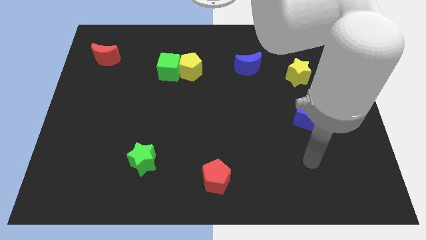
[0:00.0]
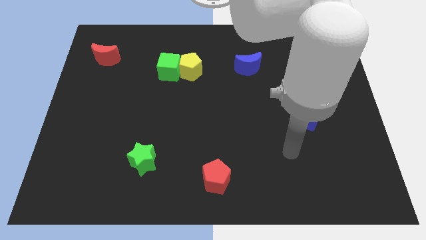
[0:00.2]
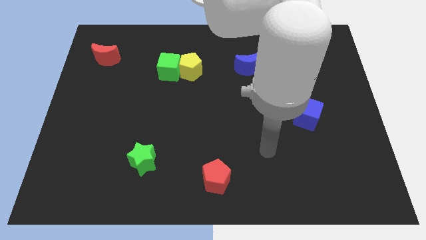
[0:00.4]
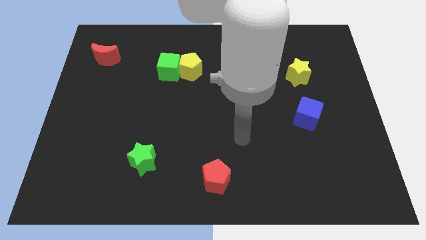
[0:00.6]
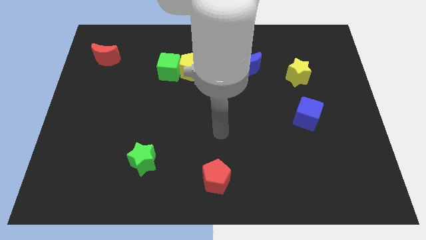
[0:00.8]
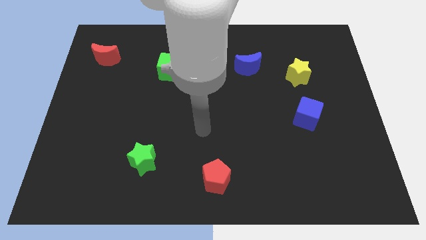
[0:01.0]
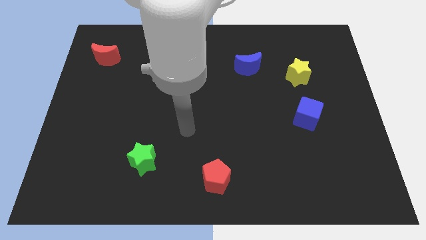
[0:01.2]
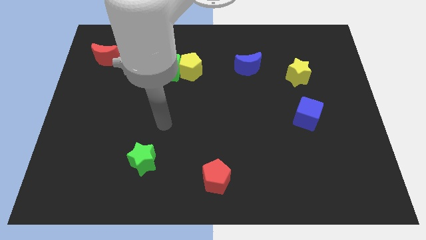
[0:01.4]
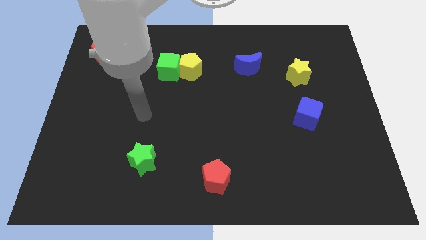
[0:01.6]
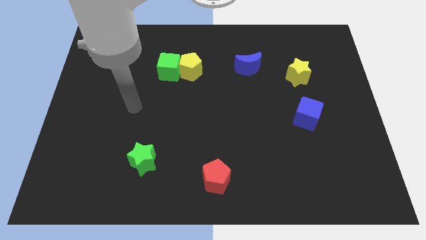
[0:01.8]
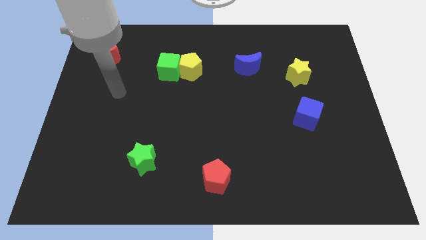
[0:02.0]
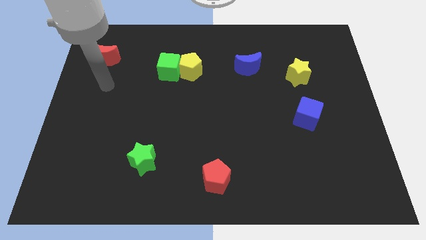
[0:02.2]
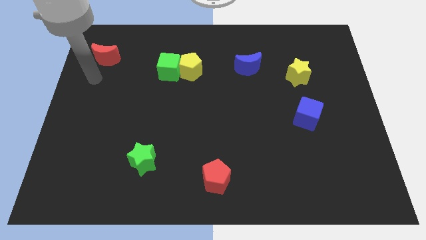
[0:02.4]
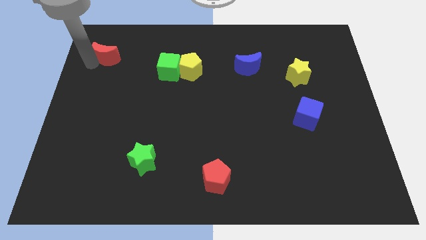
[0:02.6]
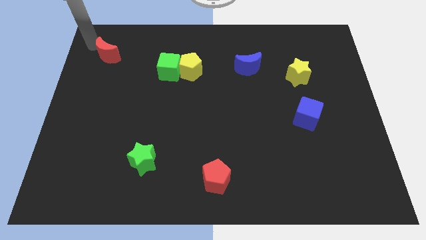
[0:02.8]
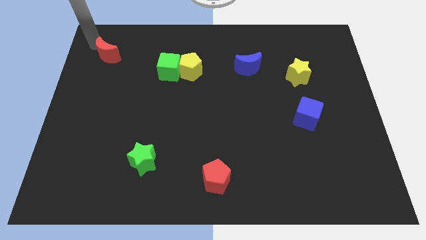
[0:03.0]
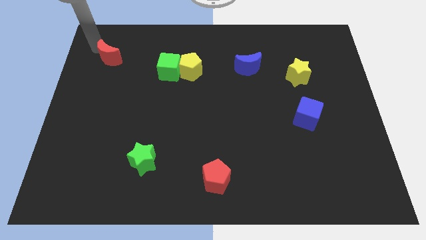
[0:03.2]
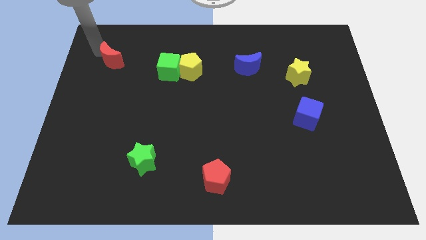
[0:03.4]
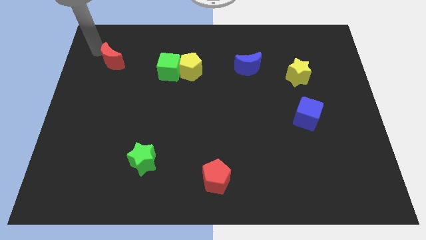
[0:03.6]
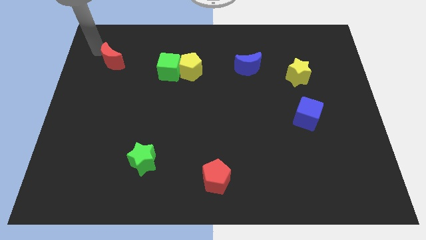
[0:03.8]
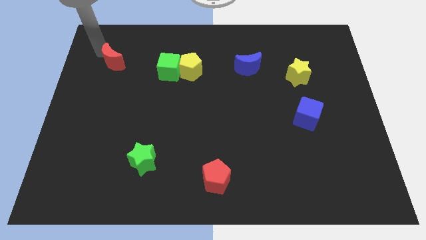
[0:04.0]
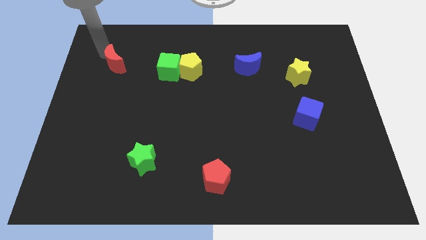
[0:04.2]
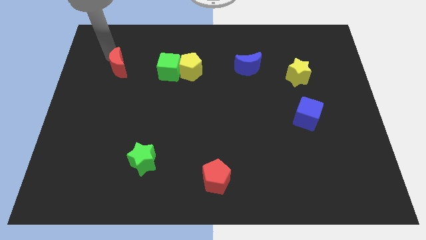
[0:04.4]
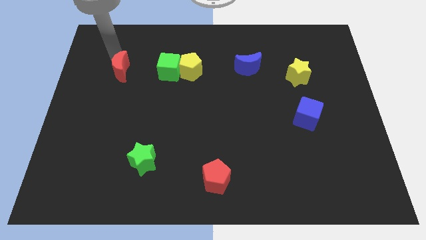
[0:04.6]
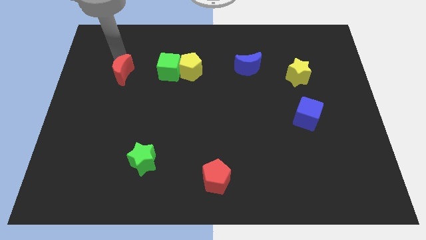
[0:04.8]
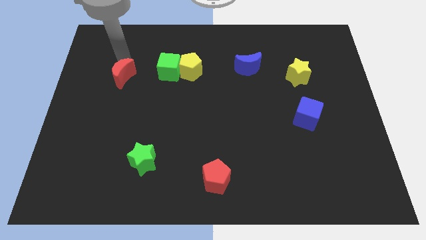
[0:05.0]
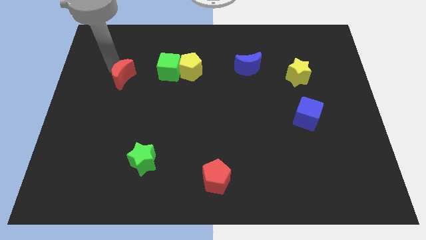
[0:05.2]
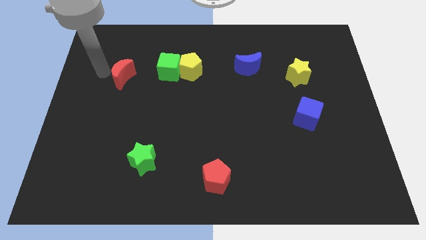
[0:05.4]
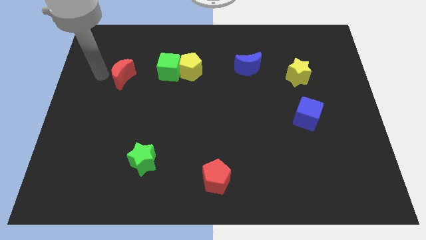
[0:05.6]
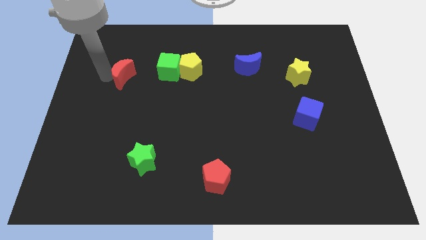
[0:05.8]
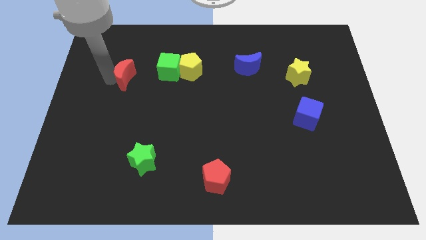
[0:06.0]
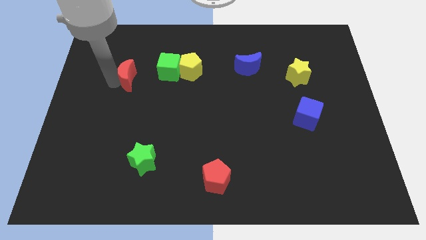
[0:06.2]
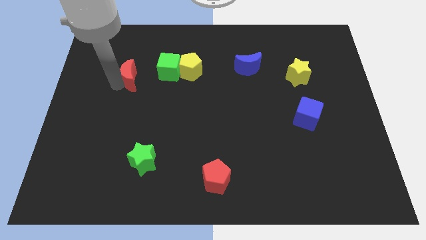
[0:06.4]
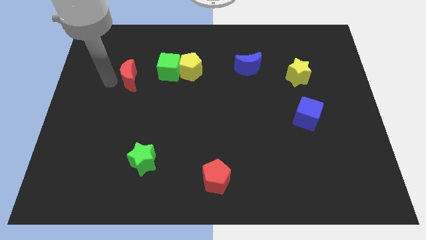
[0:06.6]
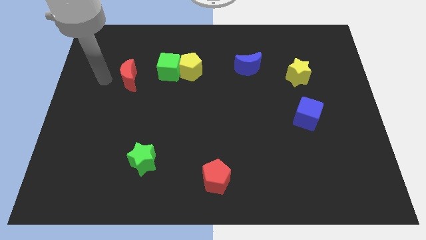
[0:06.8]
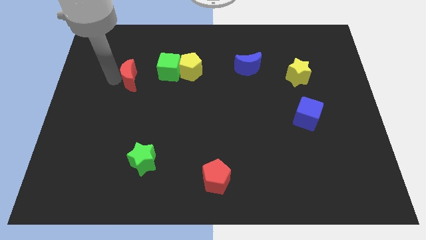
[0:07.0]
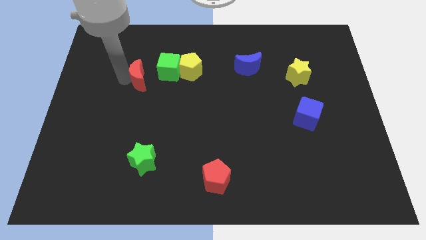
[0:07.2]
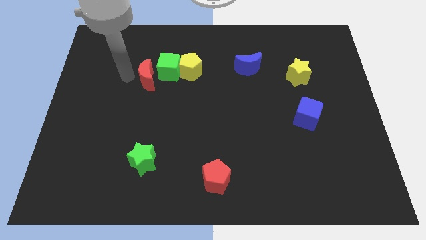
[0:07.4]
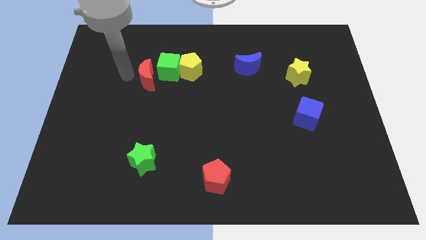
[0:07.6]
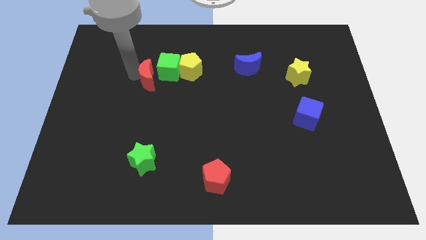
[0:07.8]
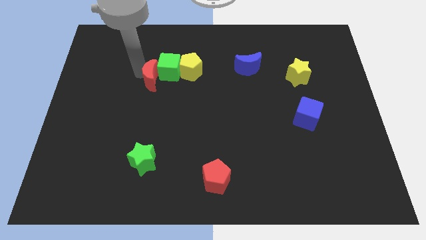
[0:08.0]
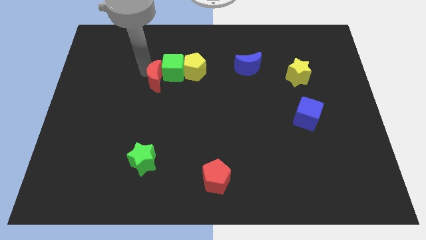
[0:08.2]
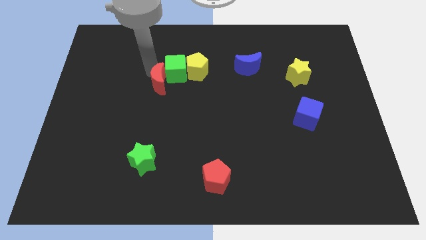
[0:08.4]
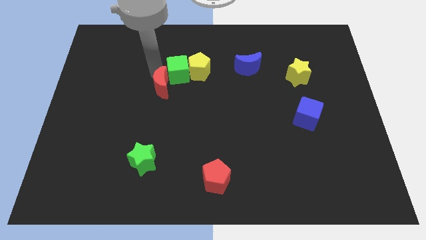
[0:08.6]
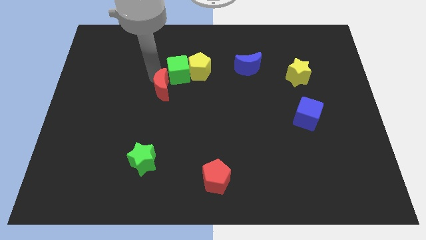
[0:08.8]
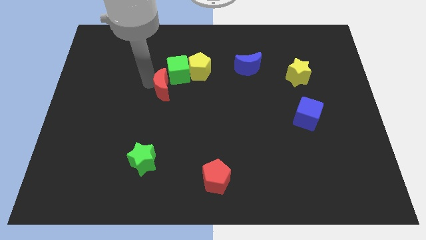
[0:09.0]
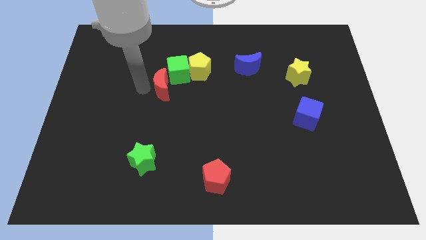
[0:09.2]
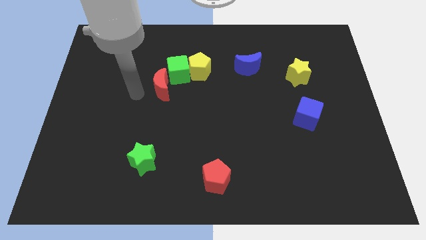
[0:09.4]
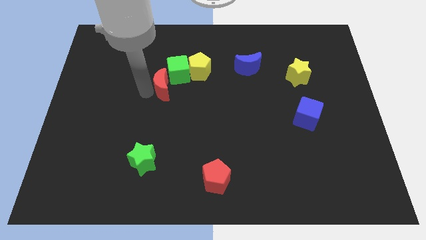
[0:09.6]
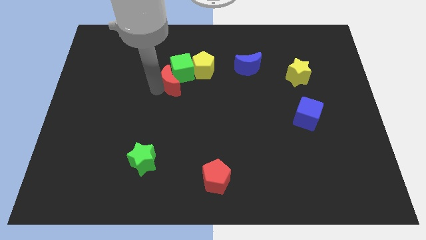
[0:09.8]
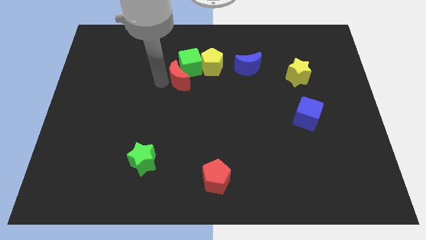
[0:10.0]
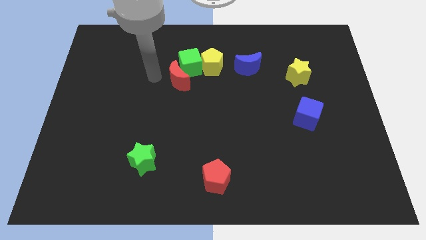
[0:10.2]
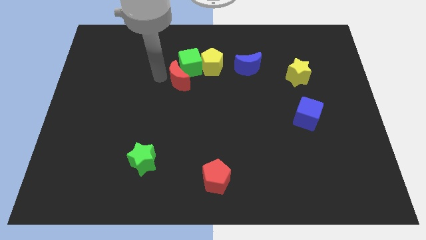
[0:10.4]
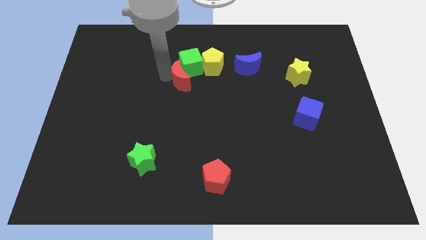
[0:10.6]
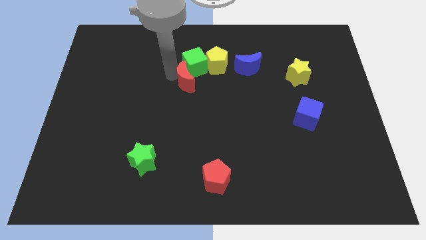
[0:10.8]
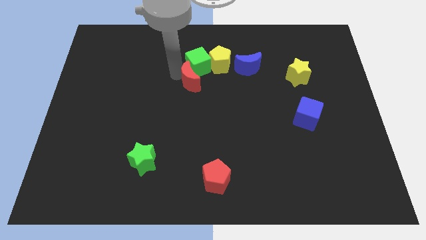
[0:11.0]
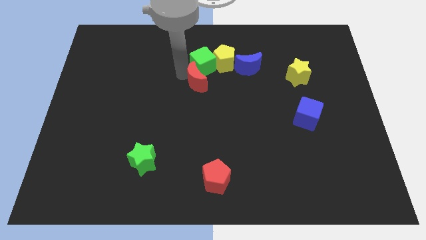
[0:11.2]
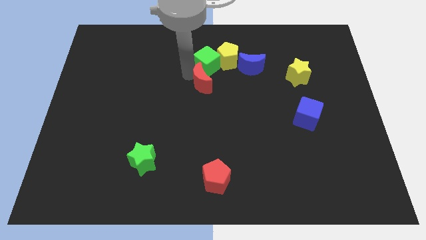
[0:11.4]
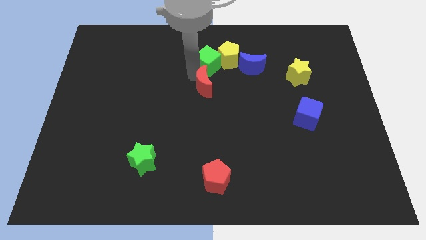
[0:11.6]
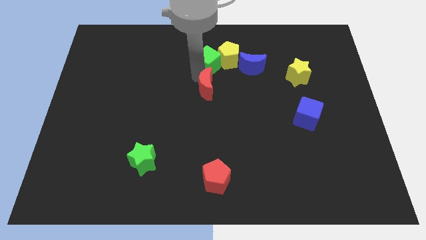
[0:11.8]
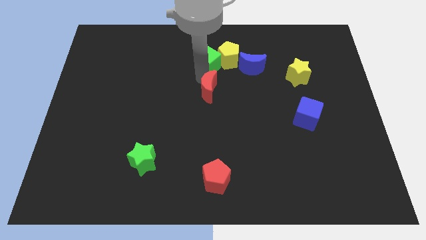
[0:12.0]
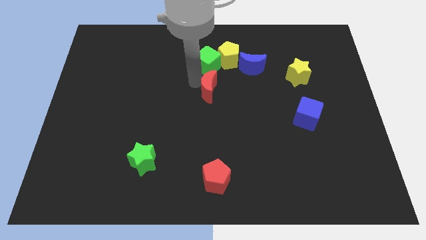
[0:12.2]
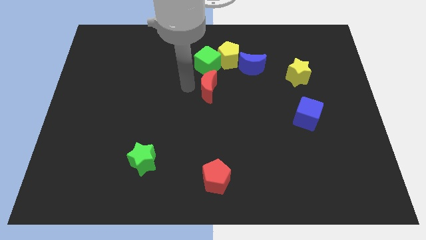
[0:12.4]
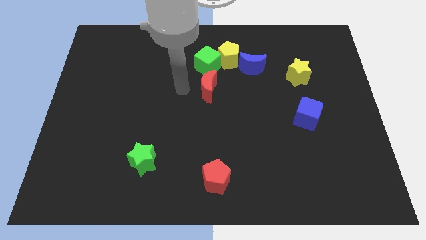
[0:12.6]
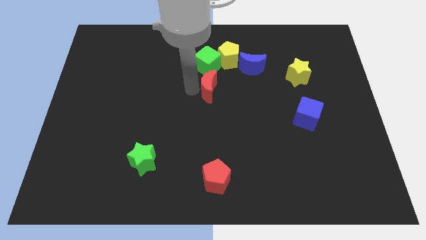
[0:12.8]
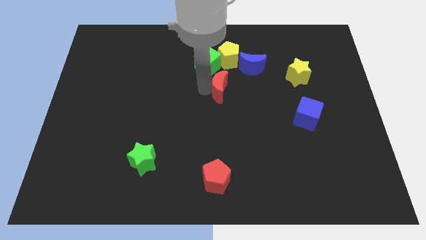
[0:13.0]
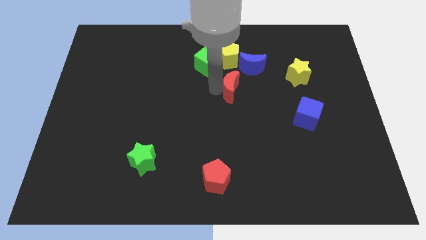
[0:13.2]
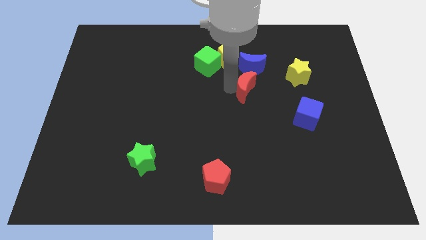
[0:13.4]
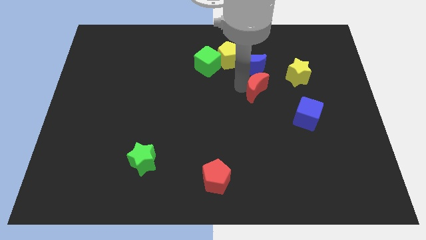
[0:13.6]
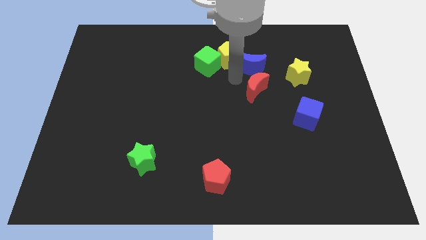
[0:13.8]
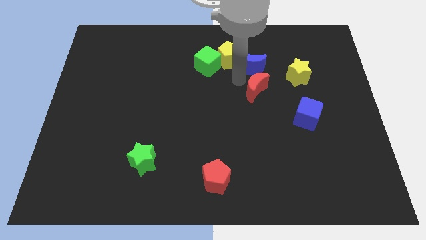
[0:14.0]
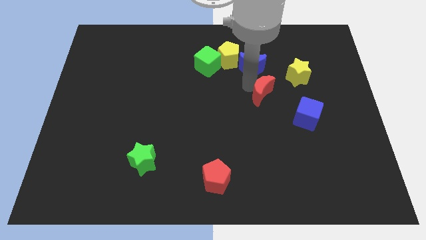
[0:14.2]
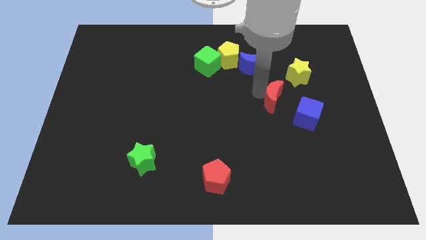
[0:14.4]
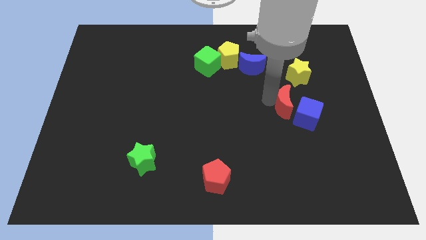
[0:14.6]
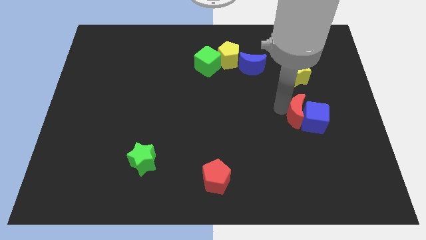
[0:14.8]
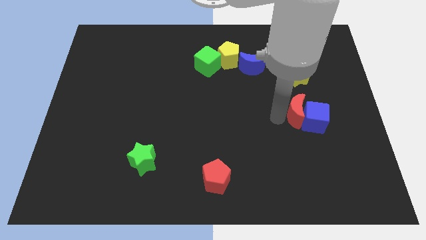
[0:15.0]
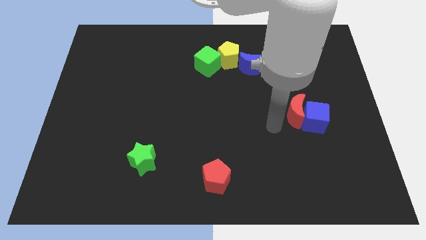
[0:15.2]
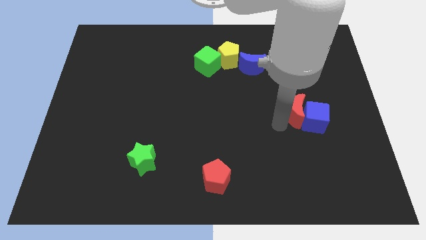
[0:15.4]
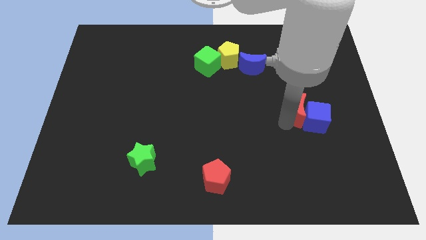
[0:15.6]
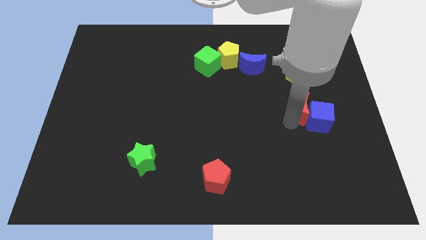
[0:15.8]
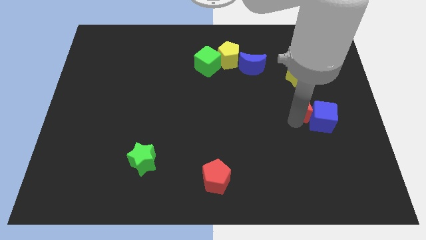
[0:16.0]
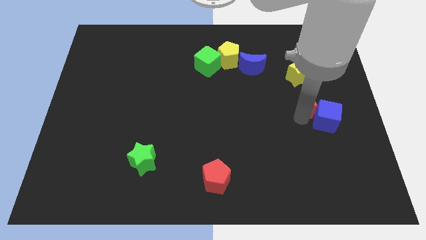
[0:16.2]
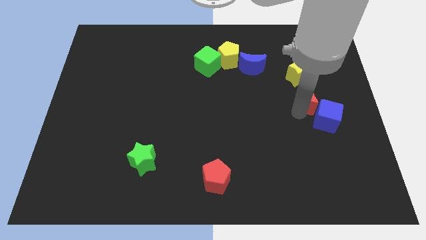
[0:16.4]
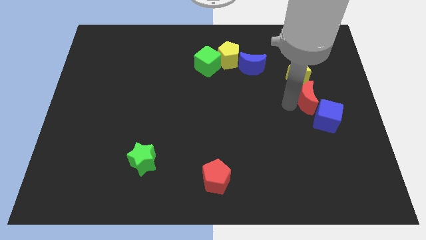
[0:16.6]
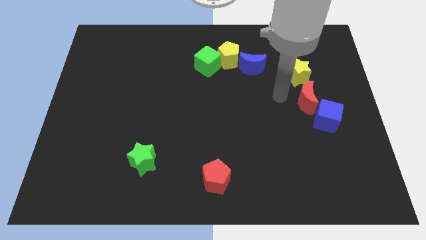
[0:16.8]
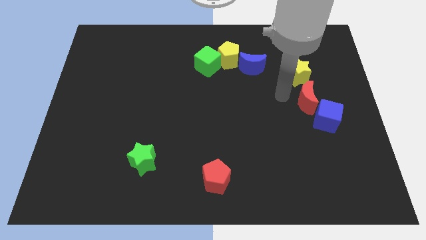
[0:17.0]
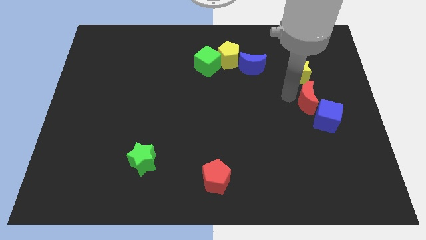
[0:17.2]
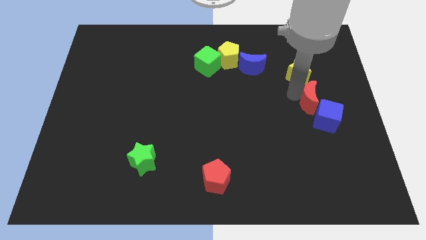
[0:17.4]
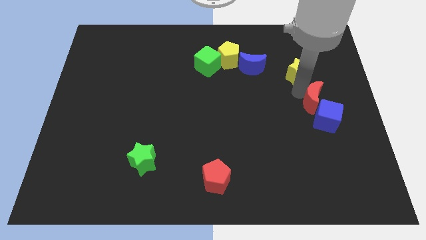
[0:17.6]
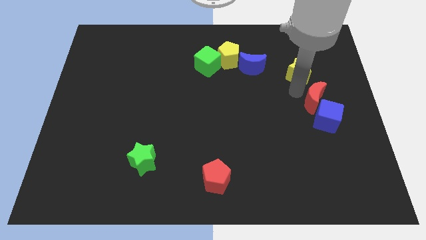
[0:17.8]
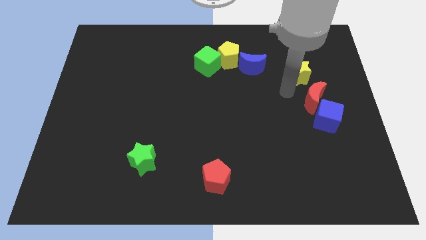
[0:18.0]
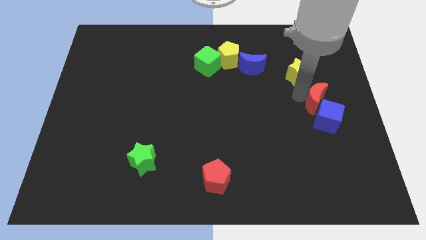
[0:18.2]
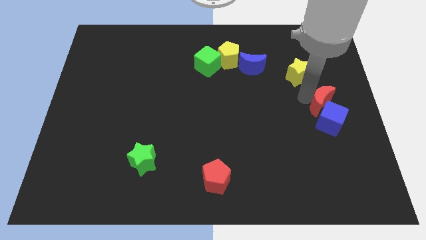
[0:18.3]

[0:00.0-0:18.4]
move the red moon to the center right
